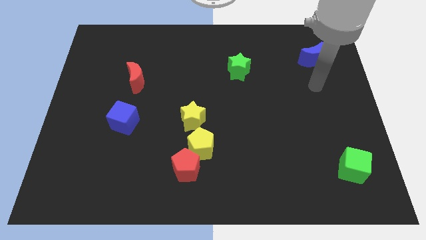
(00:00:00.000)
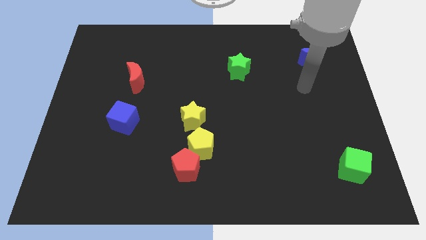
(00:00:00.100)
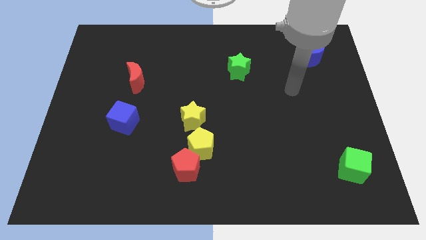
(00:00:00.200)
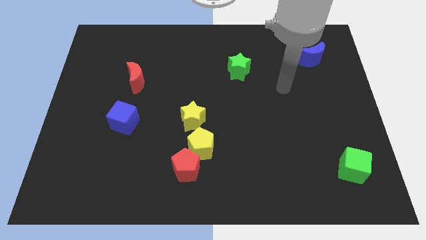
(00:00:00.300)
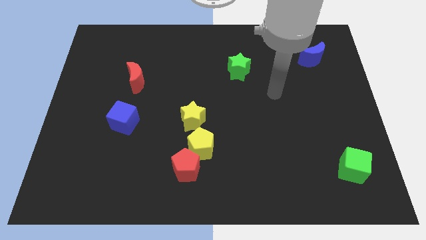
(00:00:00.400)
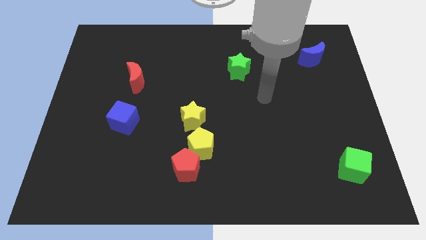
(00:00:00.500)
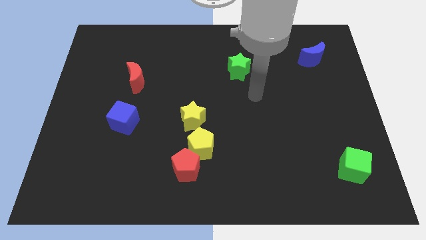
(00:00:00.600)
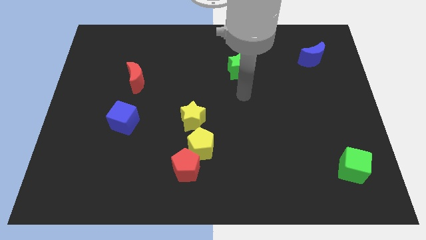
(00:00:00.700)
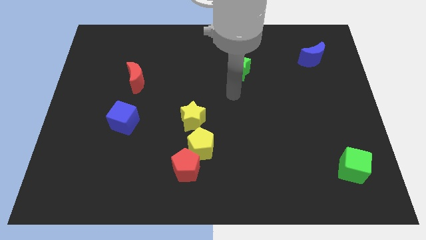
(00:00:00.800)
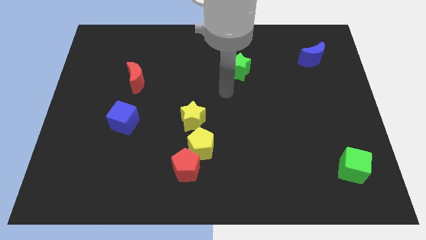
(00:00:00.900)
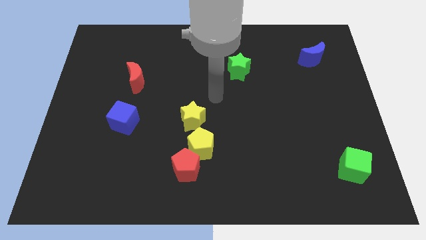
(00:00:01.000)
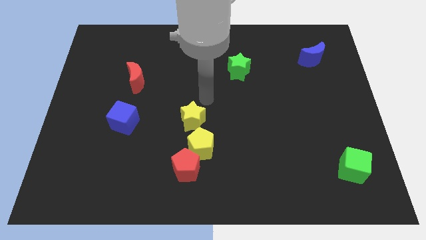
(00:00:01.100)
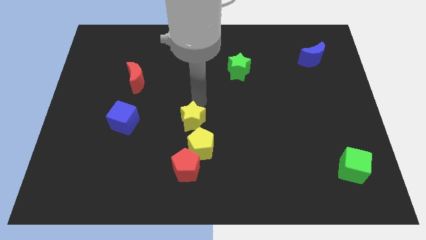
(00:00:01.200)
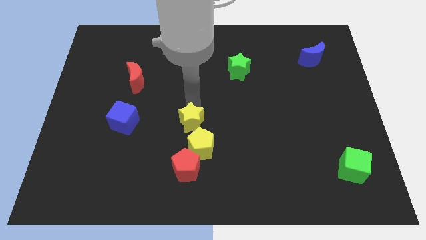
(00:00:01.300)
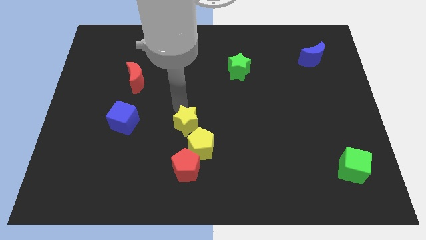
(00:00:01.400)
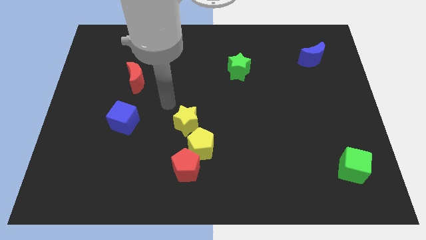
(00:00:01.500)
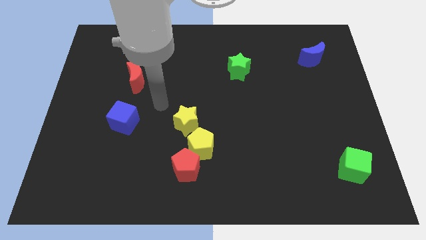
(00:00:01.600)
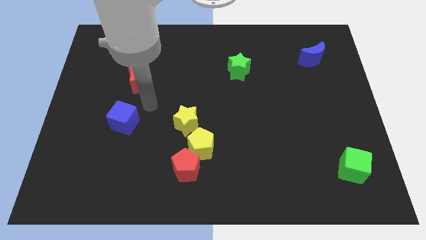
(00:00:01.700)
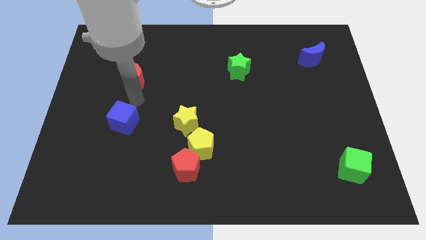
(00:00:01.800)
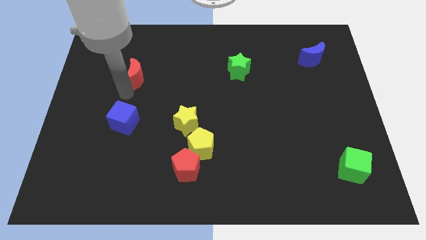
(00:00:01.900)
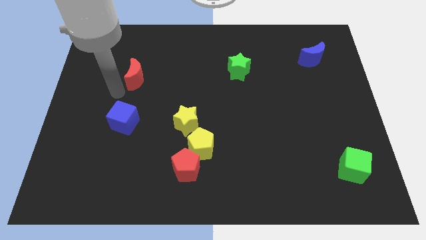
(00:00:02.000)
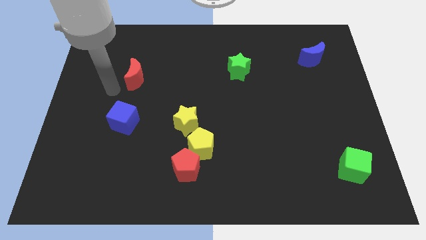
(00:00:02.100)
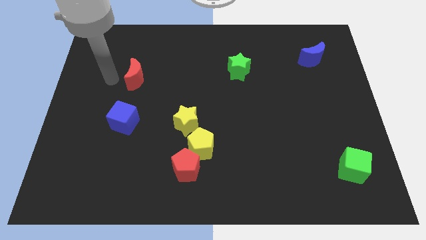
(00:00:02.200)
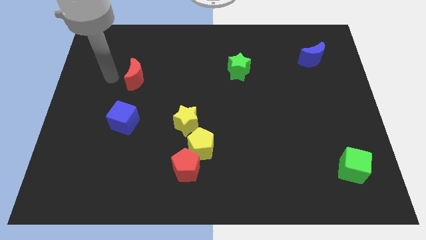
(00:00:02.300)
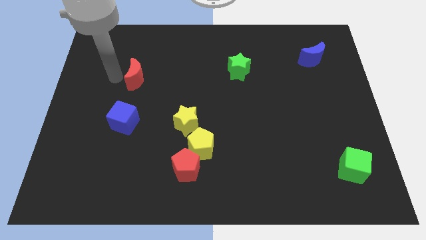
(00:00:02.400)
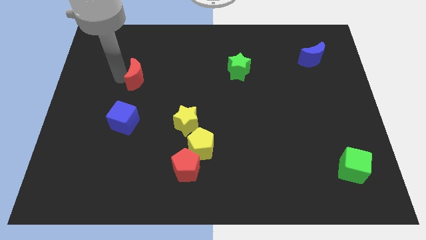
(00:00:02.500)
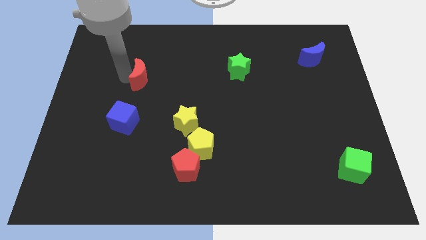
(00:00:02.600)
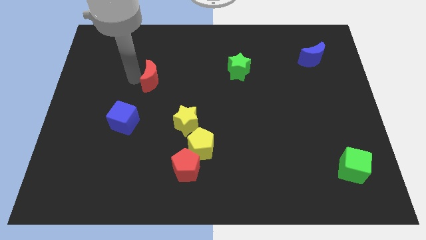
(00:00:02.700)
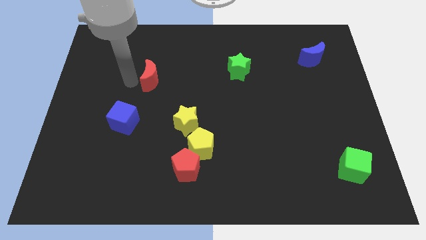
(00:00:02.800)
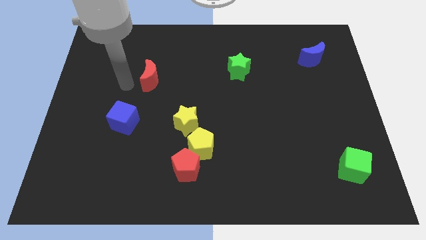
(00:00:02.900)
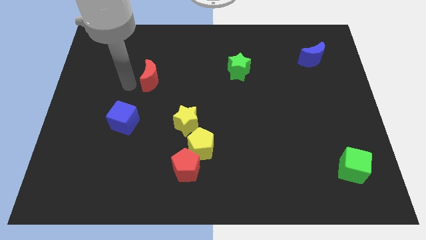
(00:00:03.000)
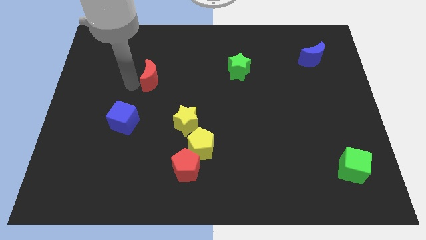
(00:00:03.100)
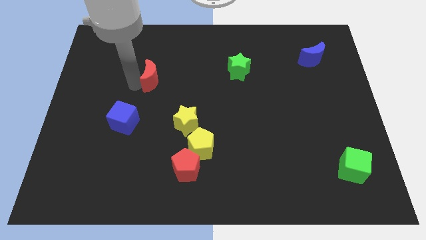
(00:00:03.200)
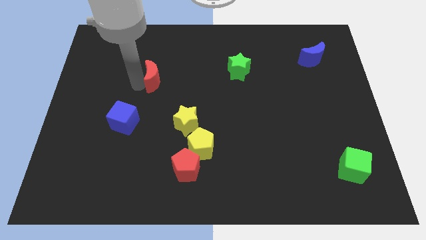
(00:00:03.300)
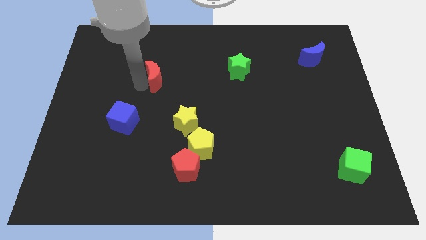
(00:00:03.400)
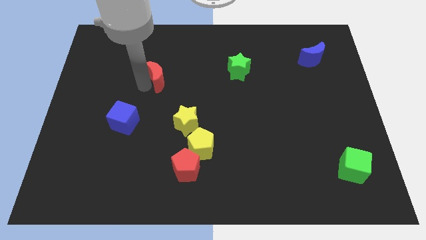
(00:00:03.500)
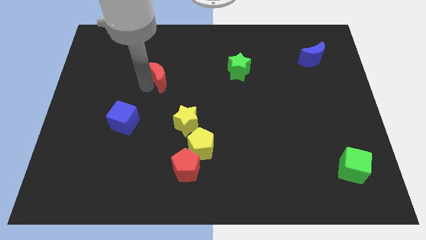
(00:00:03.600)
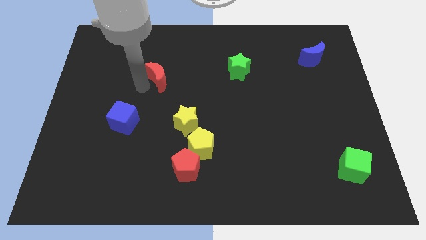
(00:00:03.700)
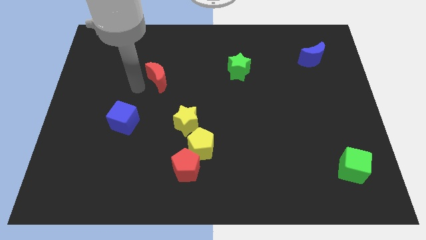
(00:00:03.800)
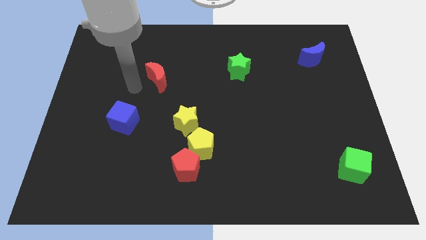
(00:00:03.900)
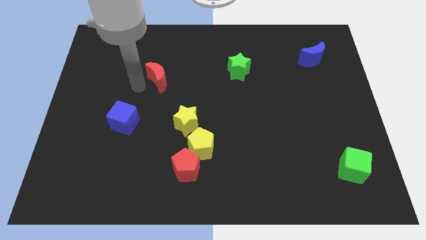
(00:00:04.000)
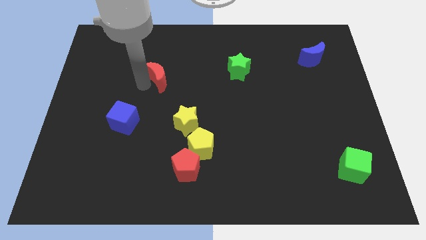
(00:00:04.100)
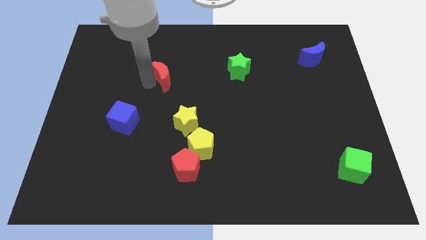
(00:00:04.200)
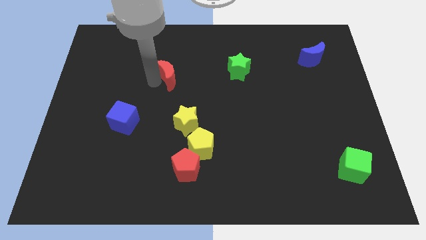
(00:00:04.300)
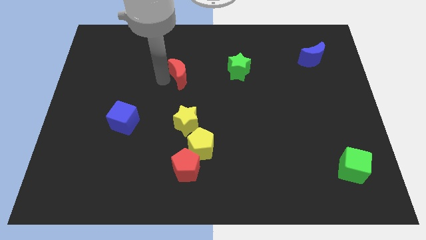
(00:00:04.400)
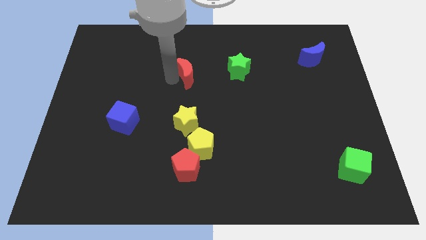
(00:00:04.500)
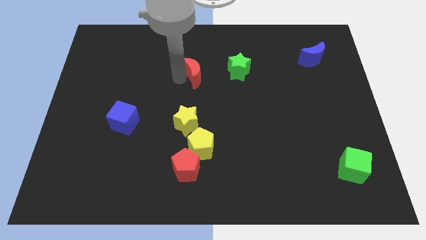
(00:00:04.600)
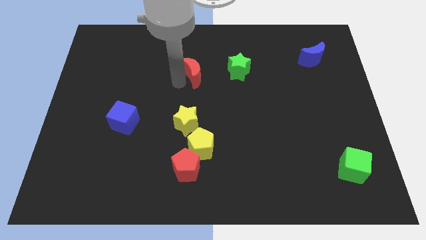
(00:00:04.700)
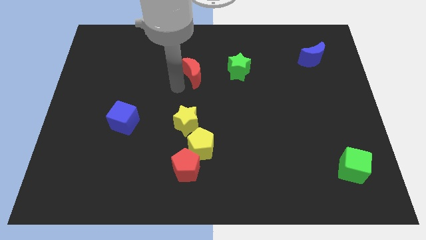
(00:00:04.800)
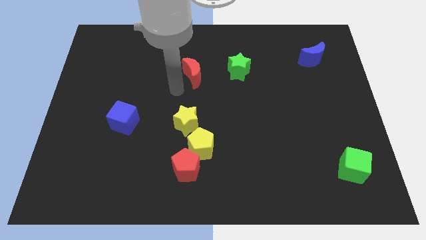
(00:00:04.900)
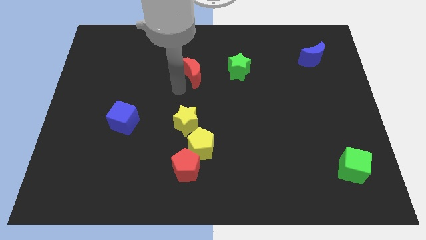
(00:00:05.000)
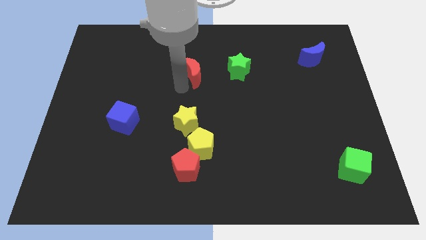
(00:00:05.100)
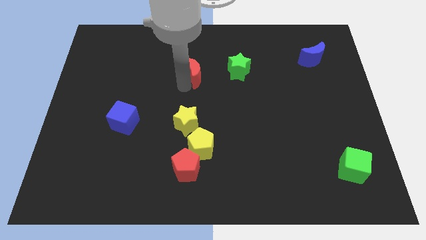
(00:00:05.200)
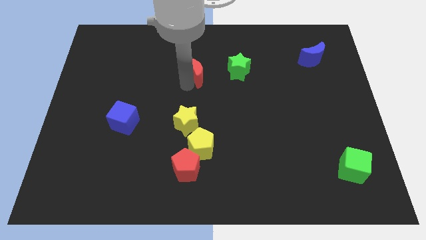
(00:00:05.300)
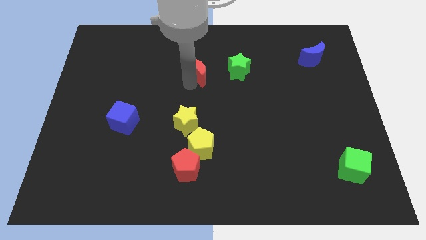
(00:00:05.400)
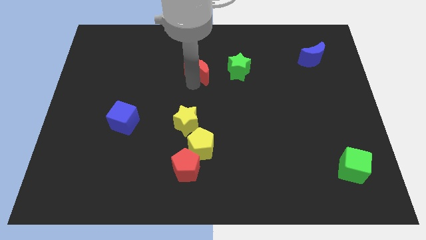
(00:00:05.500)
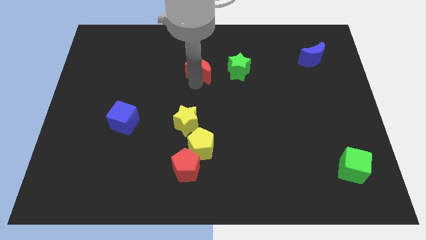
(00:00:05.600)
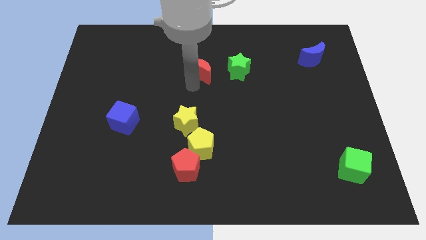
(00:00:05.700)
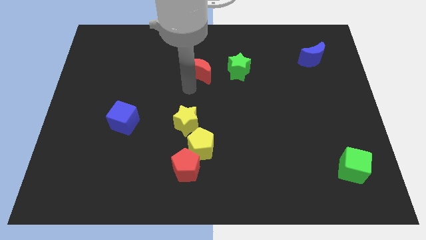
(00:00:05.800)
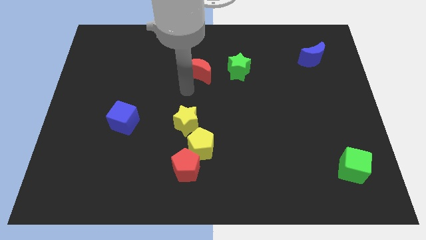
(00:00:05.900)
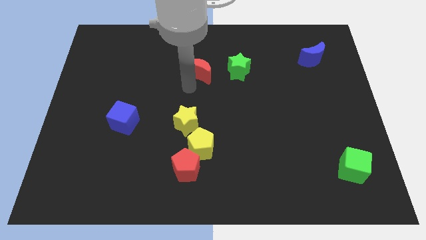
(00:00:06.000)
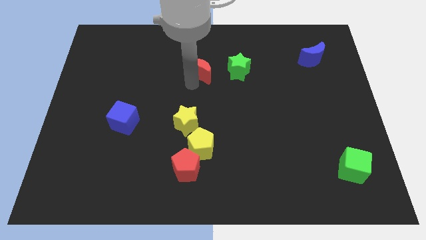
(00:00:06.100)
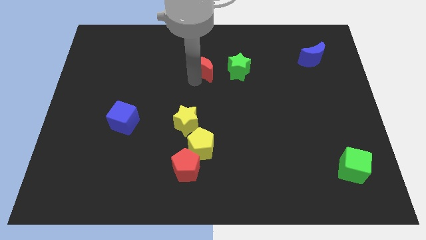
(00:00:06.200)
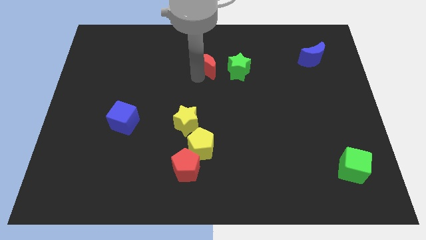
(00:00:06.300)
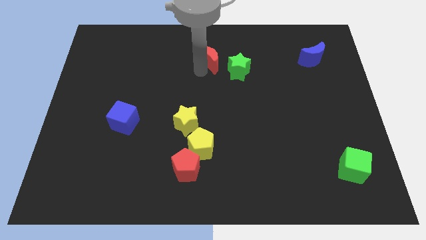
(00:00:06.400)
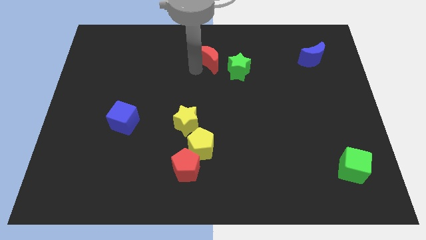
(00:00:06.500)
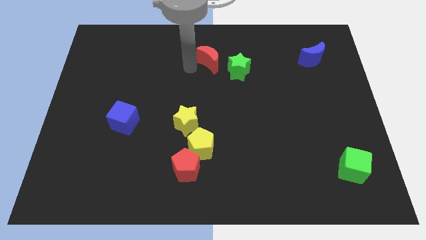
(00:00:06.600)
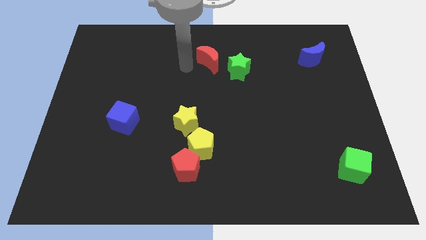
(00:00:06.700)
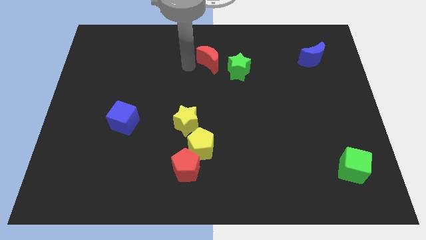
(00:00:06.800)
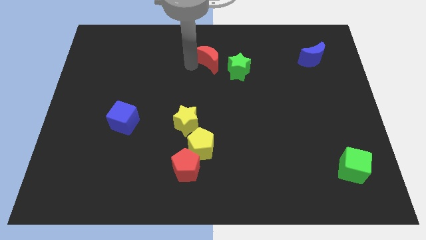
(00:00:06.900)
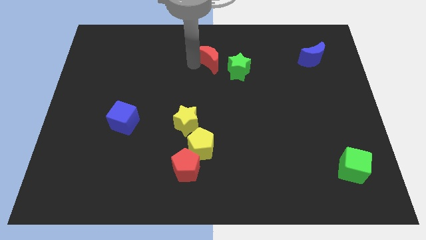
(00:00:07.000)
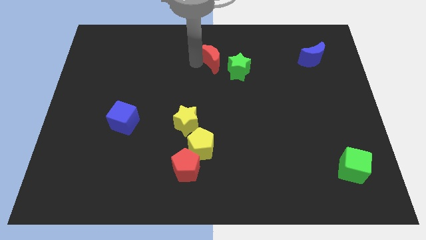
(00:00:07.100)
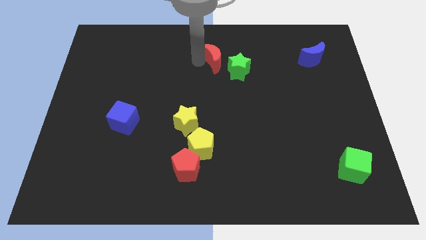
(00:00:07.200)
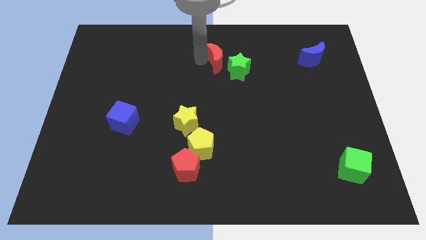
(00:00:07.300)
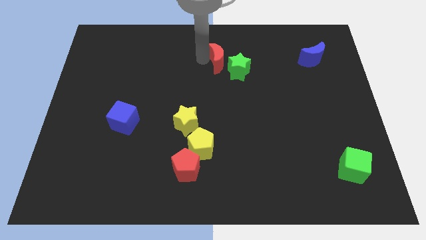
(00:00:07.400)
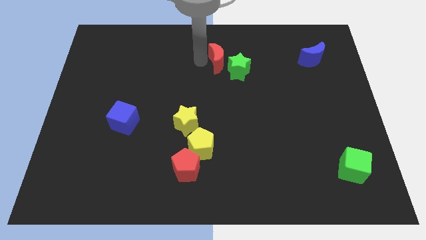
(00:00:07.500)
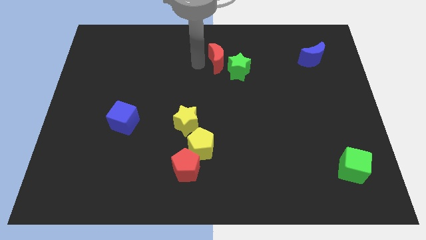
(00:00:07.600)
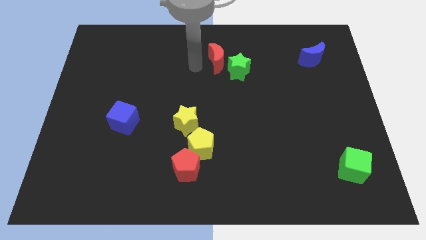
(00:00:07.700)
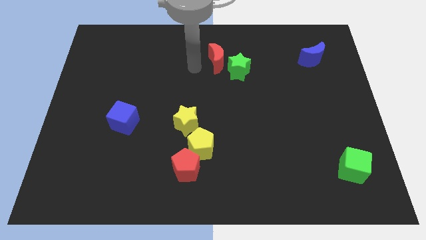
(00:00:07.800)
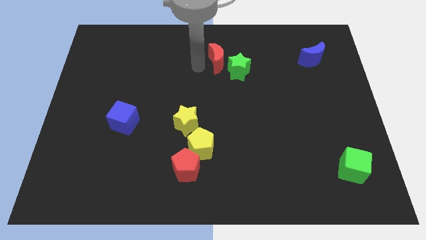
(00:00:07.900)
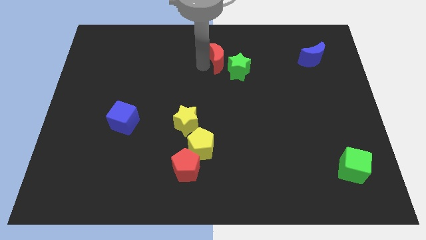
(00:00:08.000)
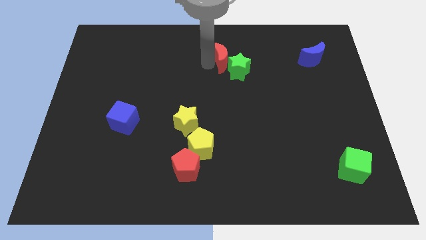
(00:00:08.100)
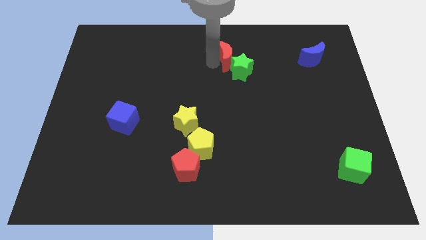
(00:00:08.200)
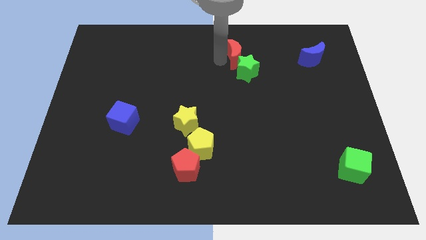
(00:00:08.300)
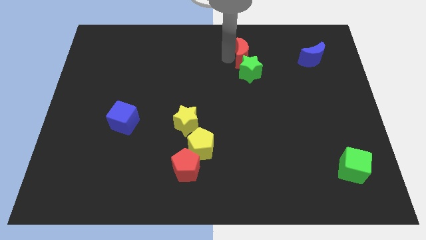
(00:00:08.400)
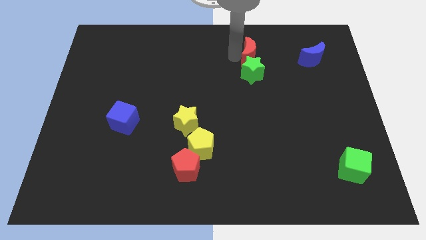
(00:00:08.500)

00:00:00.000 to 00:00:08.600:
put the red moon to the top right side of the green star
